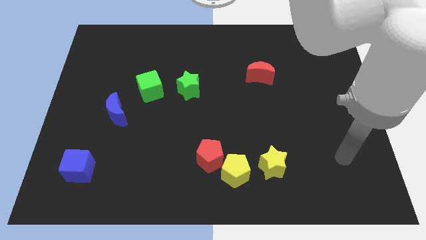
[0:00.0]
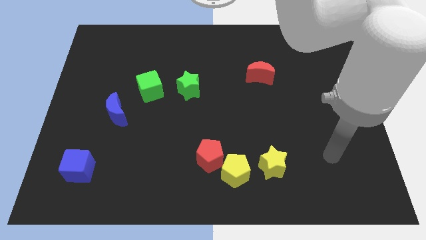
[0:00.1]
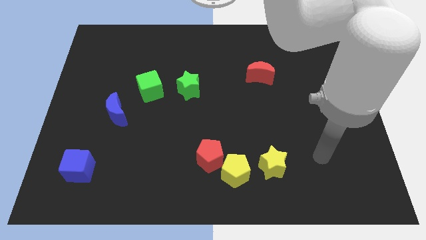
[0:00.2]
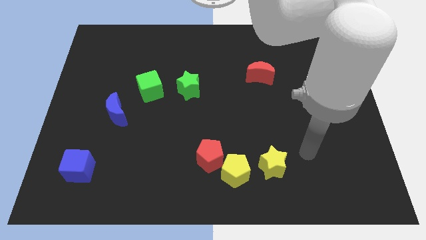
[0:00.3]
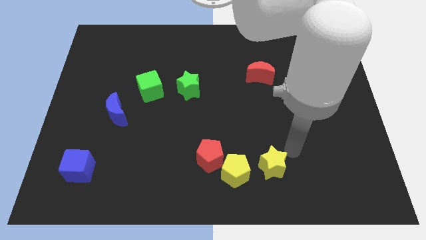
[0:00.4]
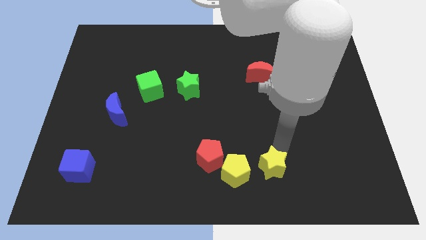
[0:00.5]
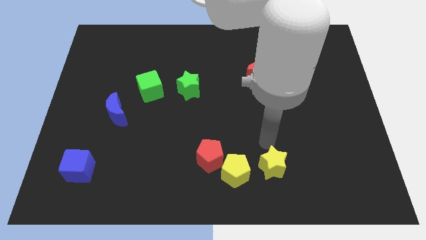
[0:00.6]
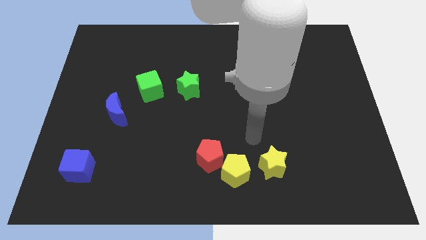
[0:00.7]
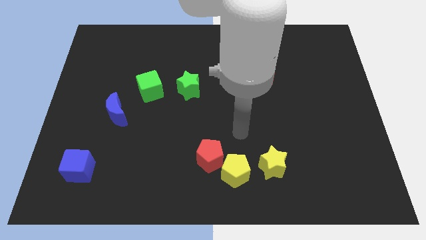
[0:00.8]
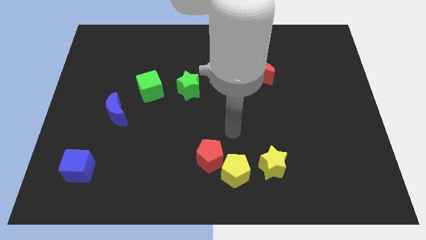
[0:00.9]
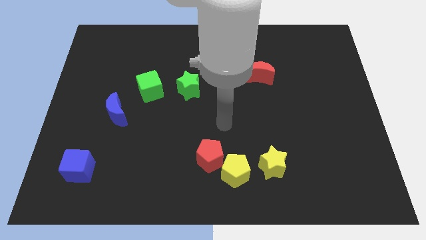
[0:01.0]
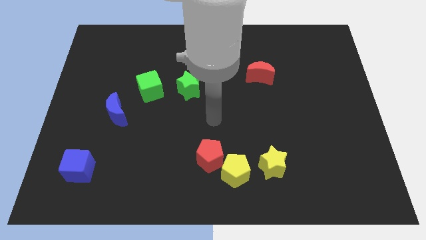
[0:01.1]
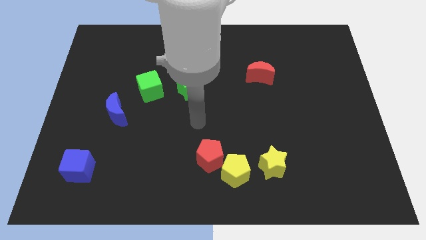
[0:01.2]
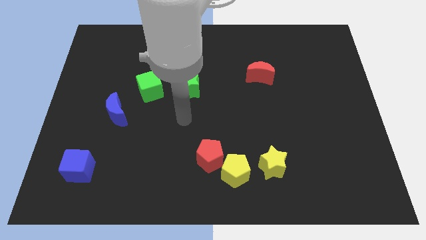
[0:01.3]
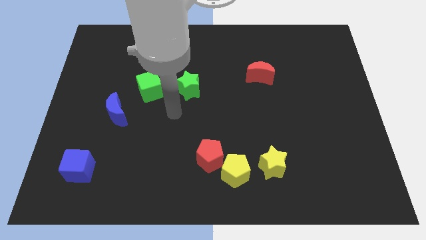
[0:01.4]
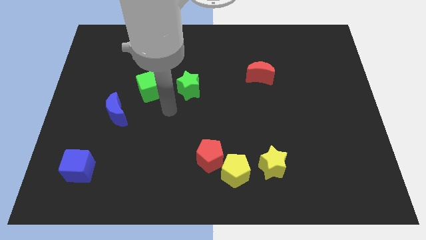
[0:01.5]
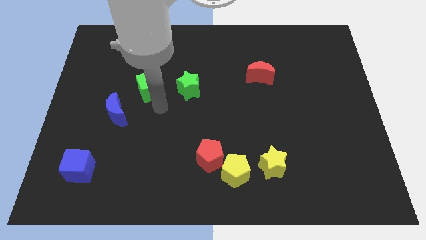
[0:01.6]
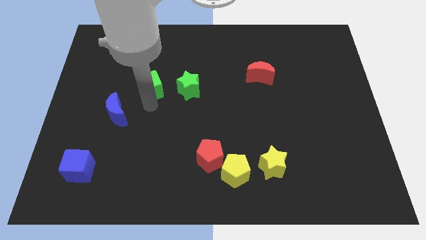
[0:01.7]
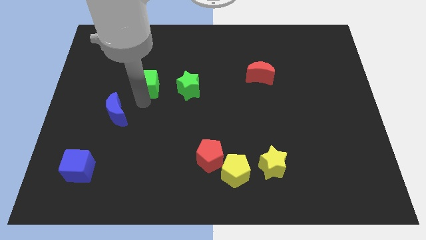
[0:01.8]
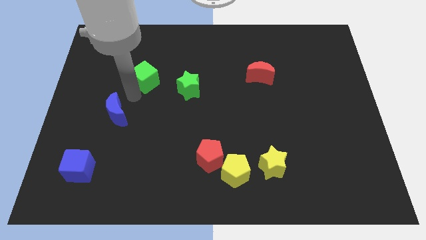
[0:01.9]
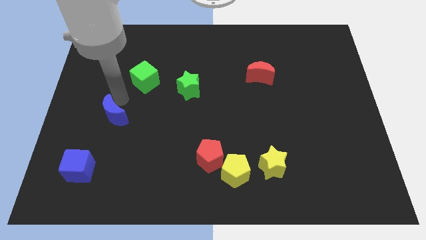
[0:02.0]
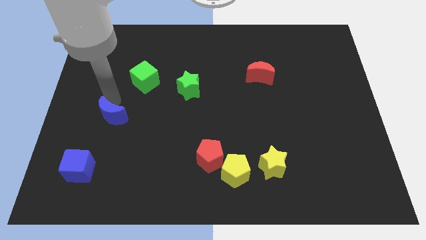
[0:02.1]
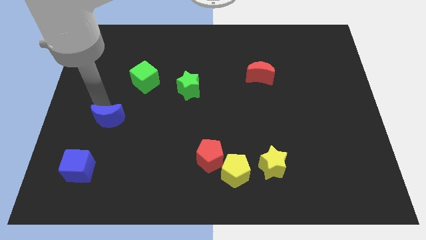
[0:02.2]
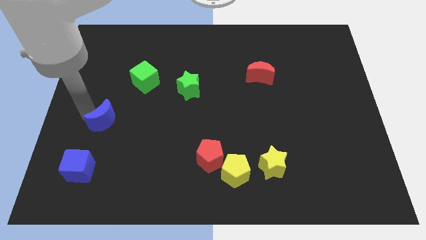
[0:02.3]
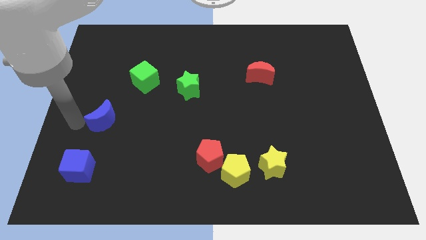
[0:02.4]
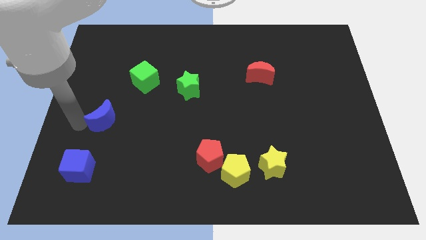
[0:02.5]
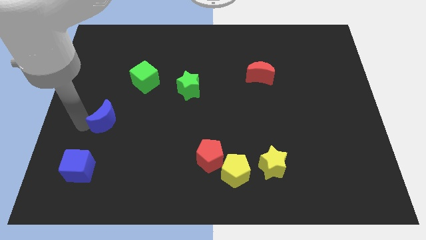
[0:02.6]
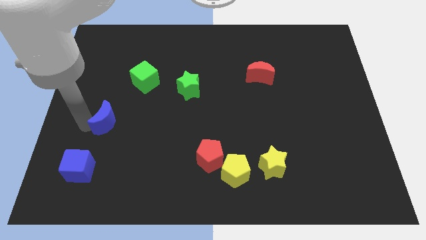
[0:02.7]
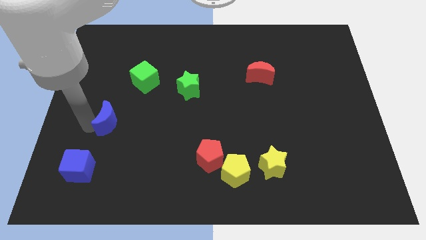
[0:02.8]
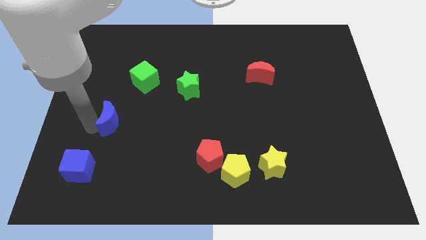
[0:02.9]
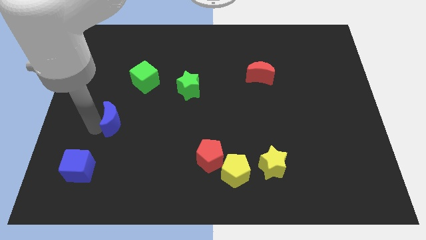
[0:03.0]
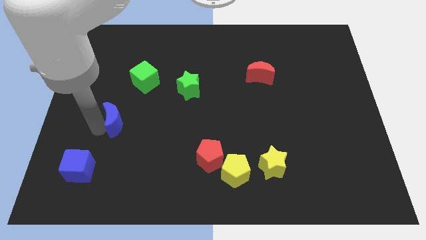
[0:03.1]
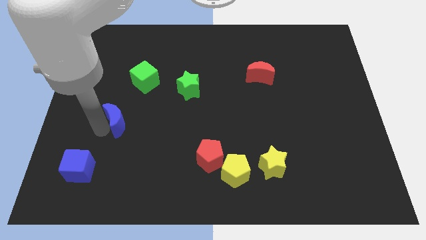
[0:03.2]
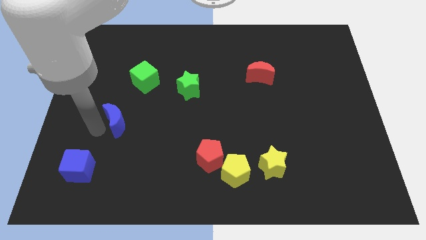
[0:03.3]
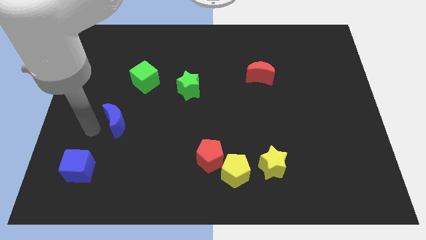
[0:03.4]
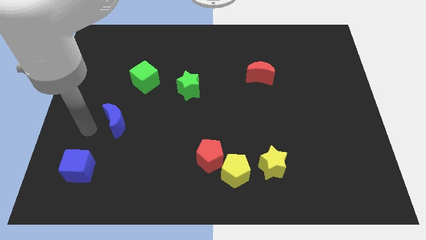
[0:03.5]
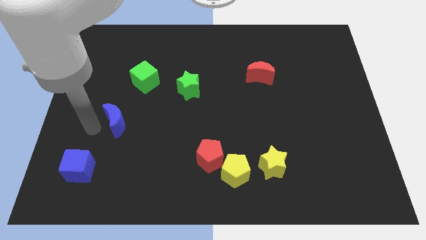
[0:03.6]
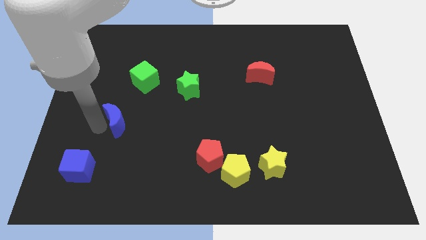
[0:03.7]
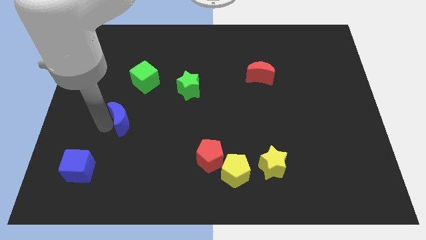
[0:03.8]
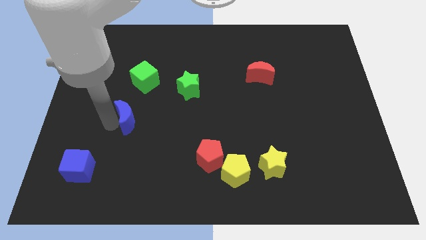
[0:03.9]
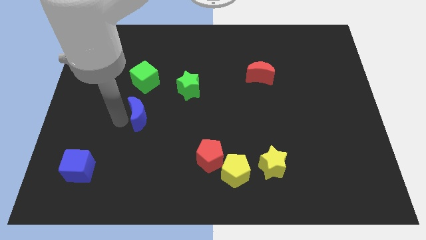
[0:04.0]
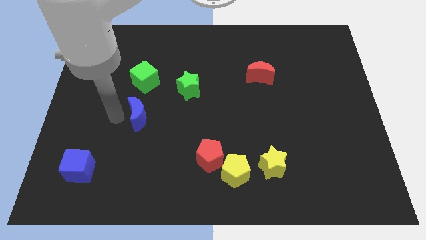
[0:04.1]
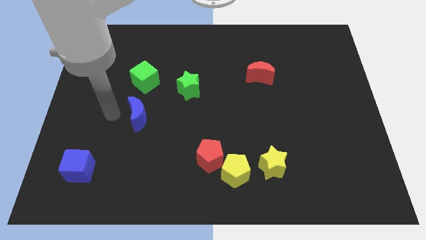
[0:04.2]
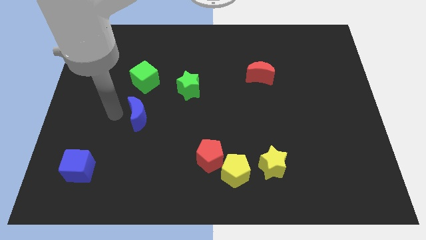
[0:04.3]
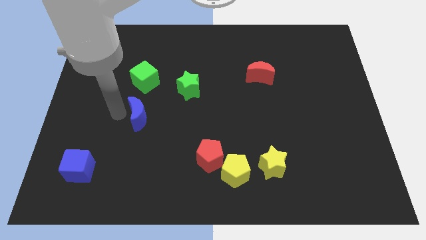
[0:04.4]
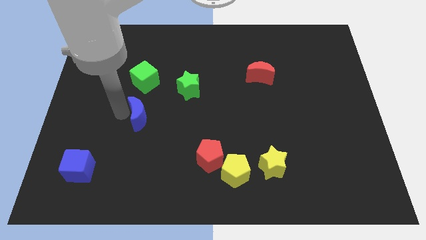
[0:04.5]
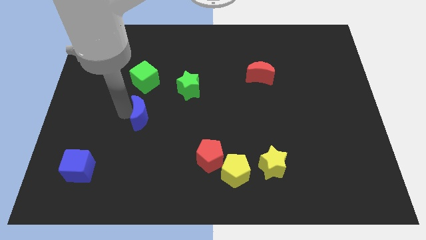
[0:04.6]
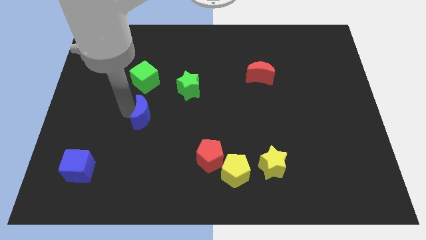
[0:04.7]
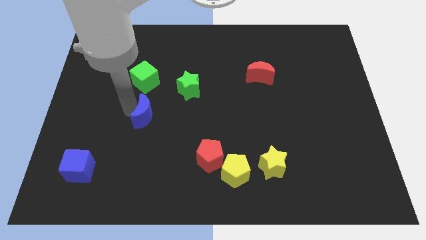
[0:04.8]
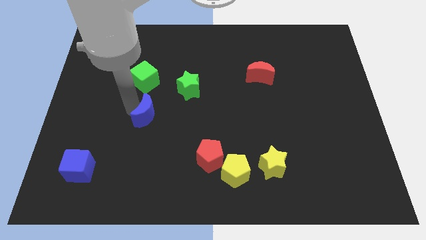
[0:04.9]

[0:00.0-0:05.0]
slightly move the blue moon to the right

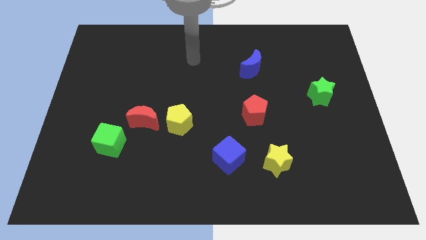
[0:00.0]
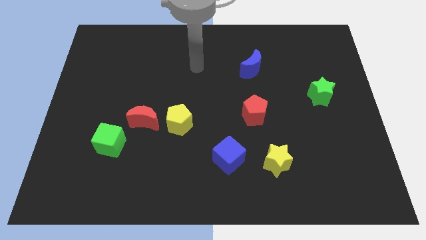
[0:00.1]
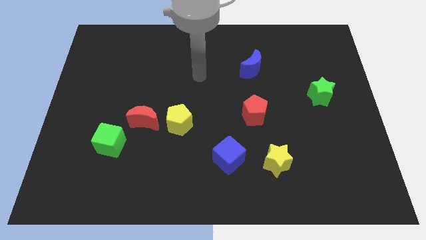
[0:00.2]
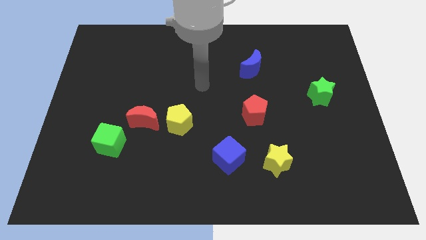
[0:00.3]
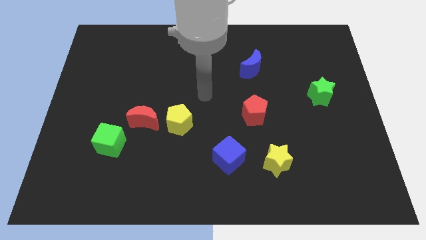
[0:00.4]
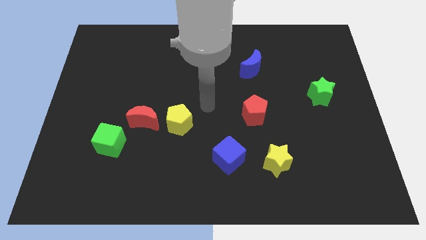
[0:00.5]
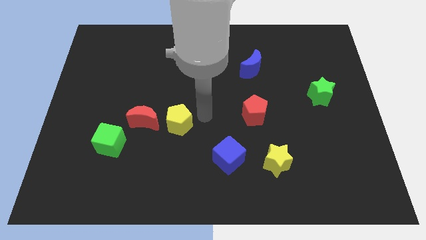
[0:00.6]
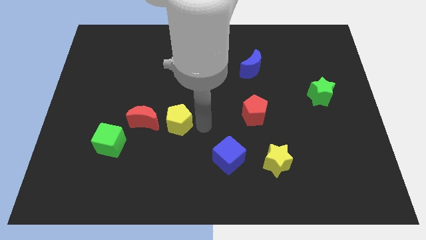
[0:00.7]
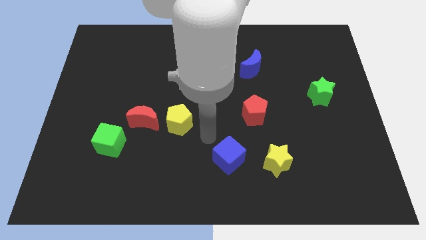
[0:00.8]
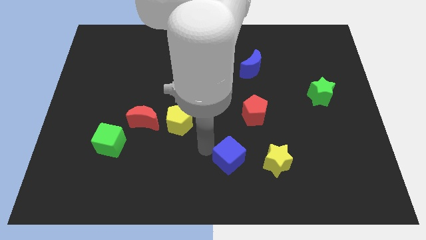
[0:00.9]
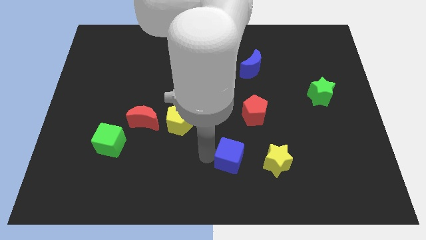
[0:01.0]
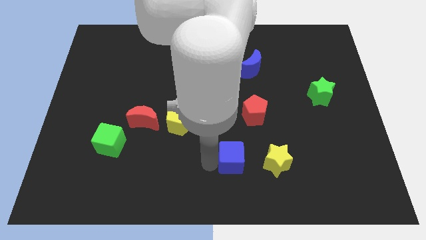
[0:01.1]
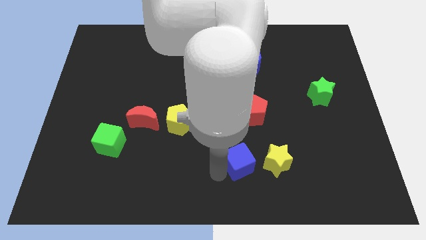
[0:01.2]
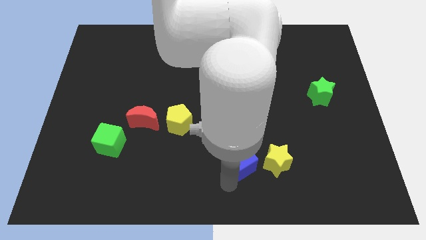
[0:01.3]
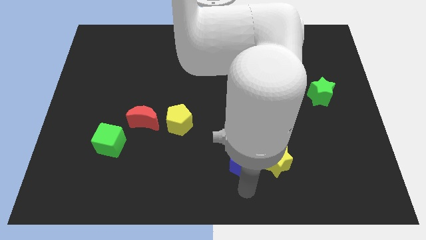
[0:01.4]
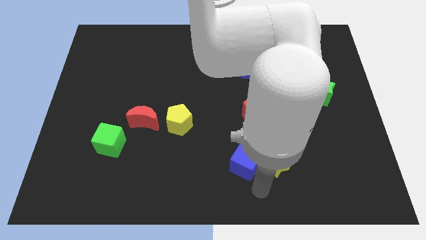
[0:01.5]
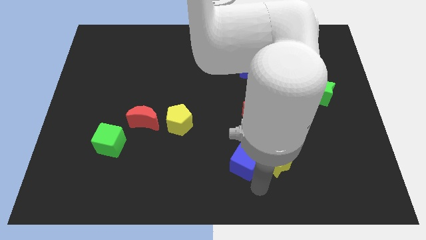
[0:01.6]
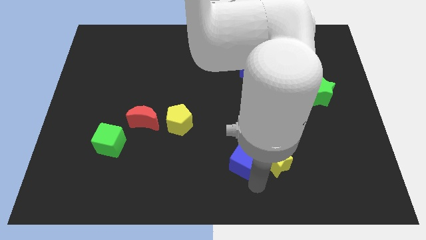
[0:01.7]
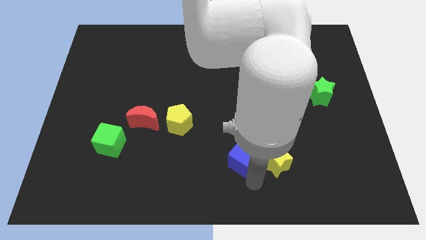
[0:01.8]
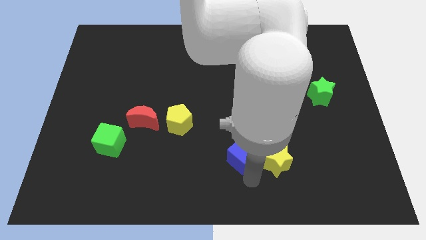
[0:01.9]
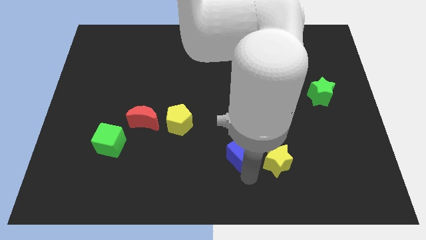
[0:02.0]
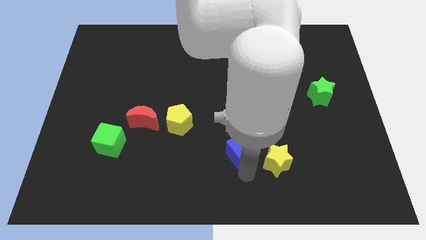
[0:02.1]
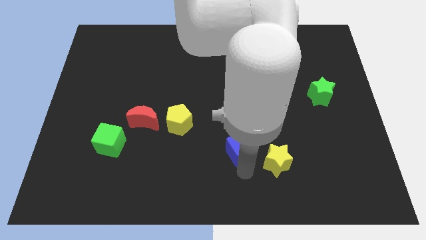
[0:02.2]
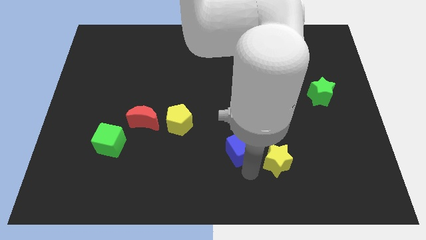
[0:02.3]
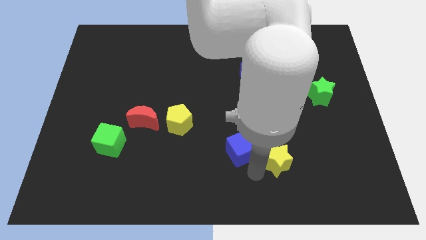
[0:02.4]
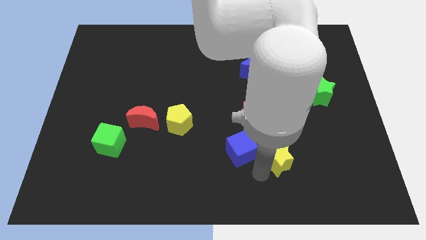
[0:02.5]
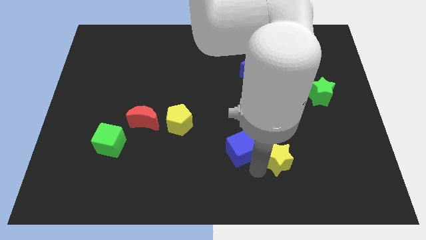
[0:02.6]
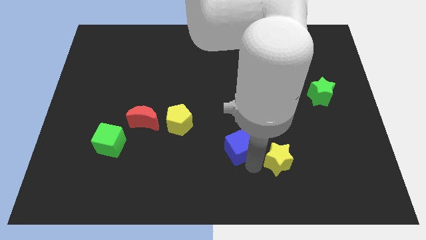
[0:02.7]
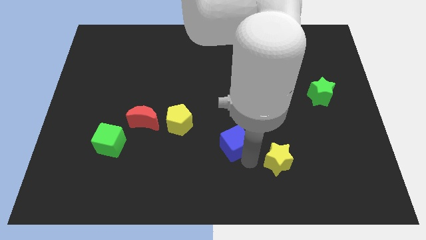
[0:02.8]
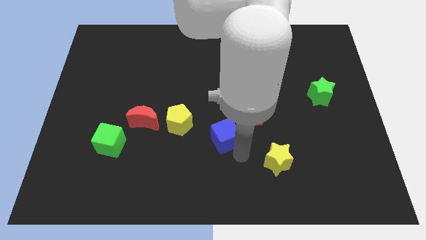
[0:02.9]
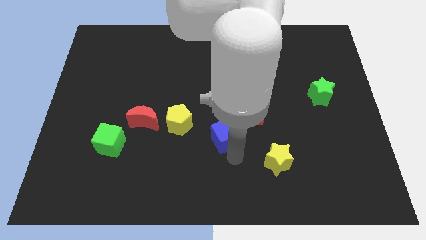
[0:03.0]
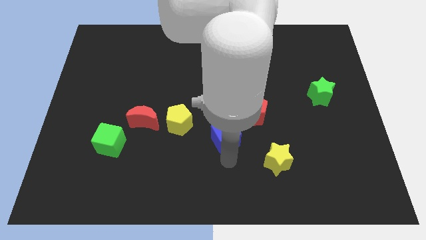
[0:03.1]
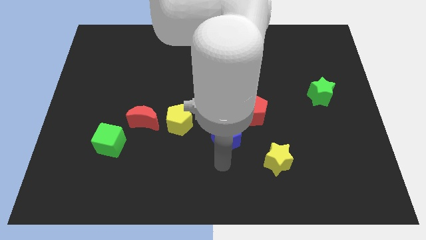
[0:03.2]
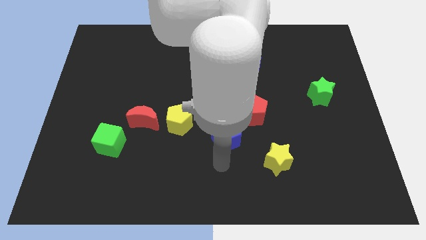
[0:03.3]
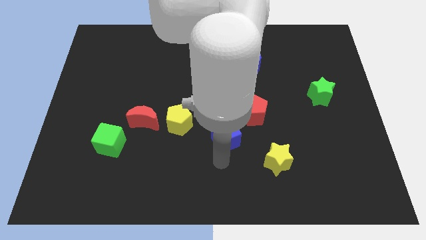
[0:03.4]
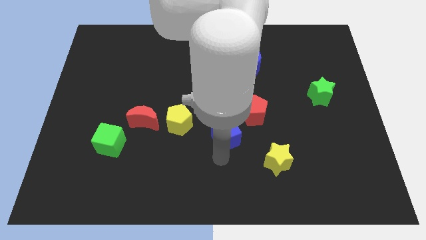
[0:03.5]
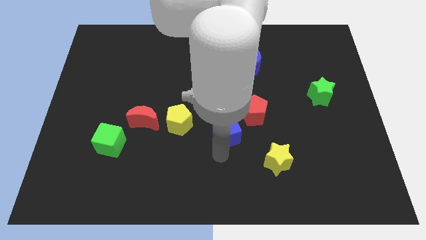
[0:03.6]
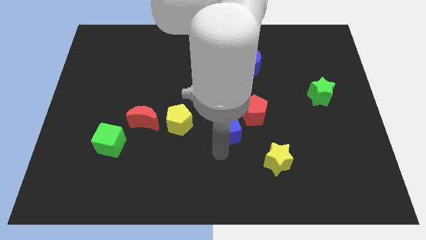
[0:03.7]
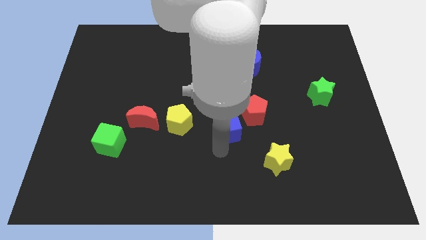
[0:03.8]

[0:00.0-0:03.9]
push the blue cube upwards slightly
